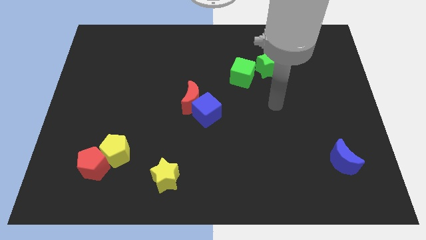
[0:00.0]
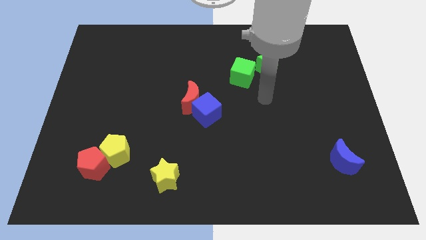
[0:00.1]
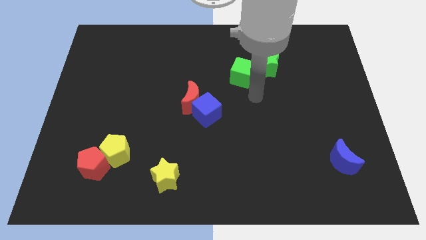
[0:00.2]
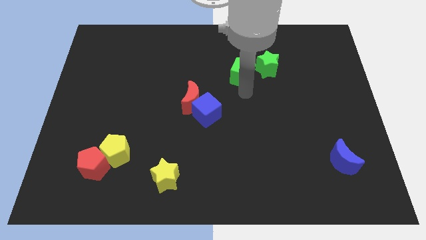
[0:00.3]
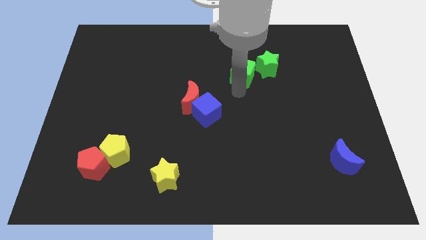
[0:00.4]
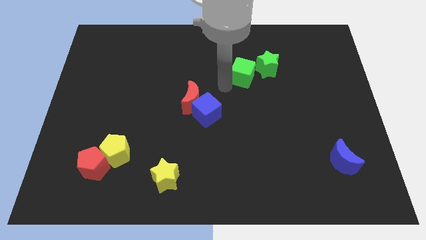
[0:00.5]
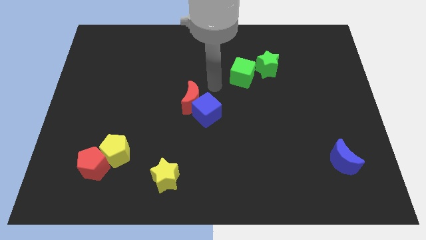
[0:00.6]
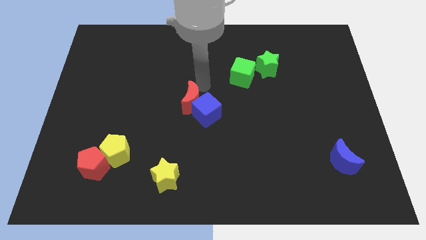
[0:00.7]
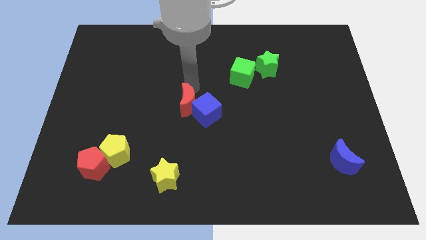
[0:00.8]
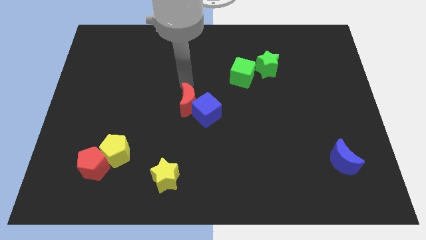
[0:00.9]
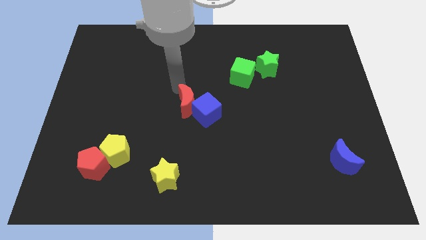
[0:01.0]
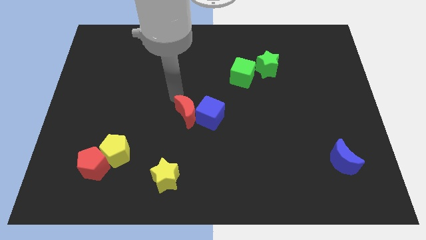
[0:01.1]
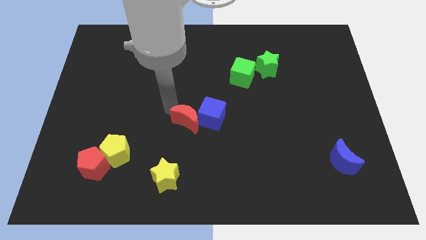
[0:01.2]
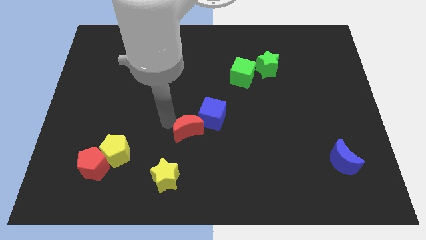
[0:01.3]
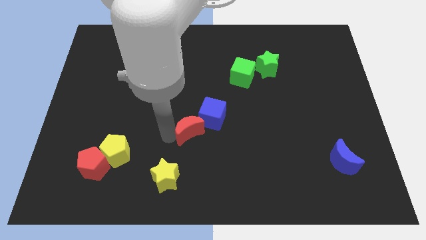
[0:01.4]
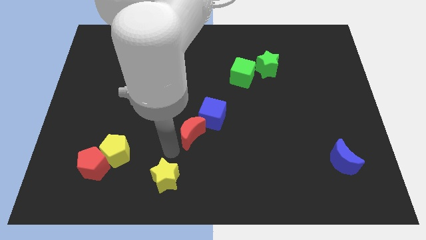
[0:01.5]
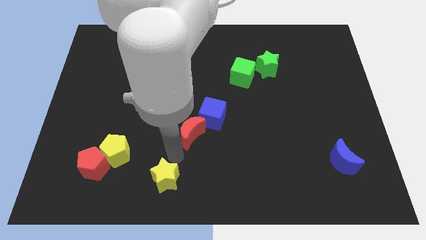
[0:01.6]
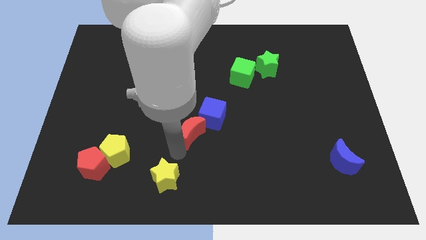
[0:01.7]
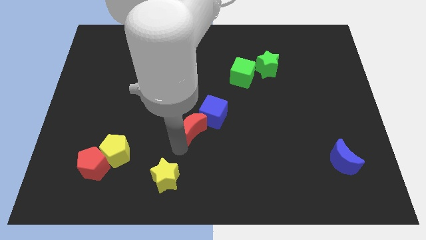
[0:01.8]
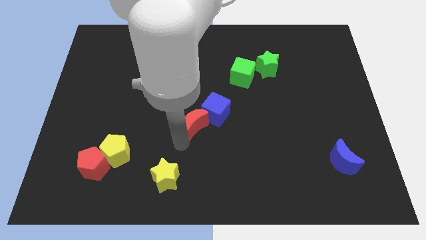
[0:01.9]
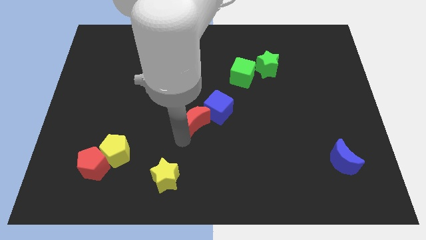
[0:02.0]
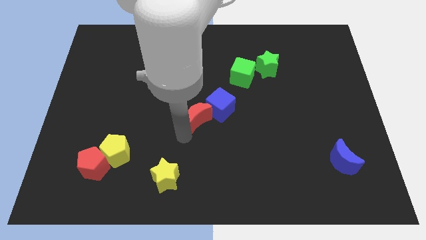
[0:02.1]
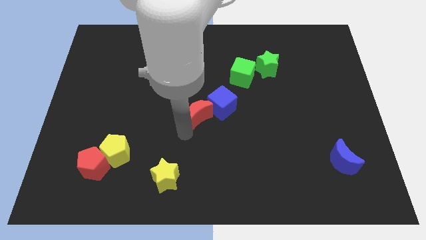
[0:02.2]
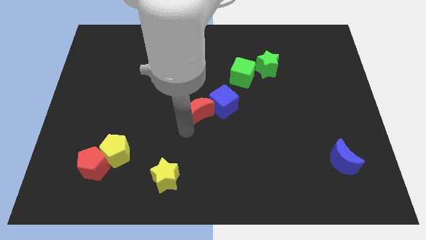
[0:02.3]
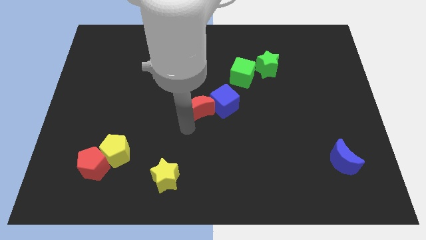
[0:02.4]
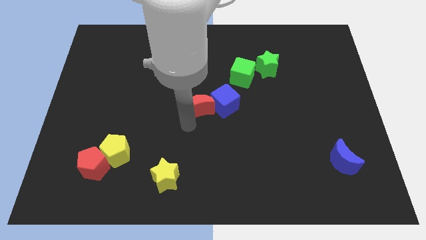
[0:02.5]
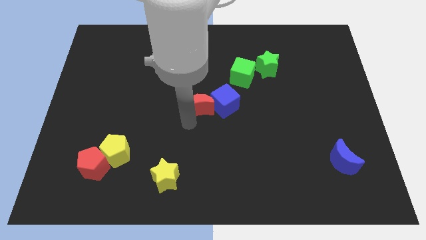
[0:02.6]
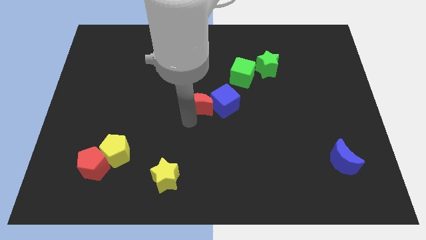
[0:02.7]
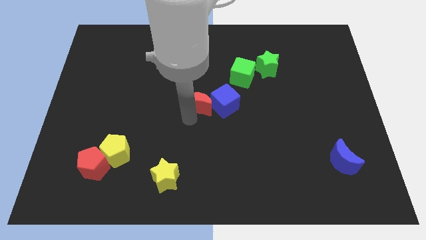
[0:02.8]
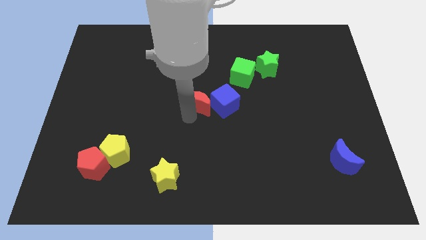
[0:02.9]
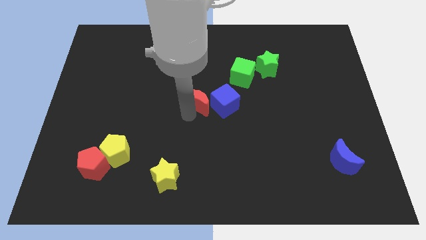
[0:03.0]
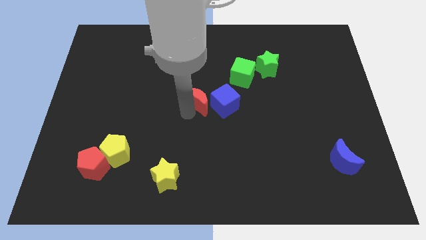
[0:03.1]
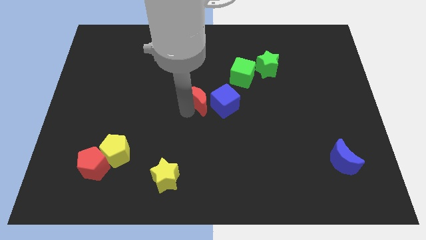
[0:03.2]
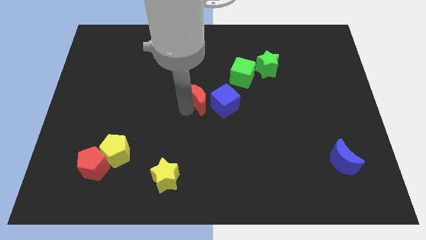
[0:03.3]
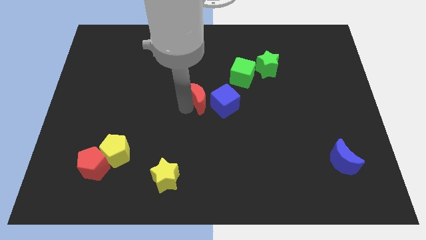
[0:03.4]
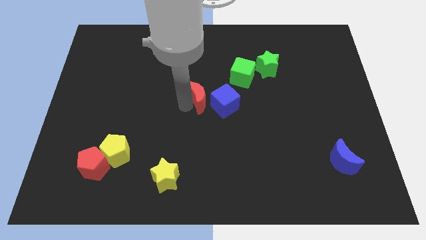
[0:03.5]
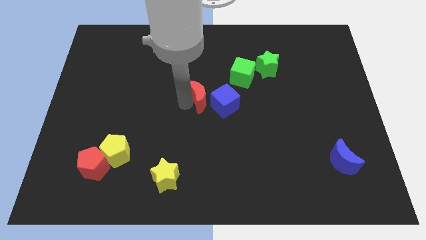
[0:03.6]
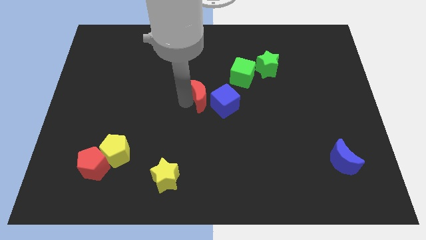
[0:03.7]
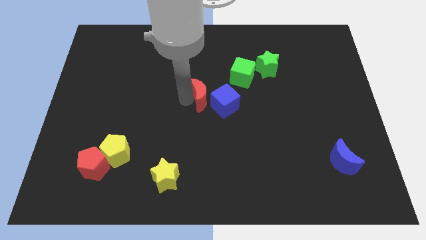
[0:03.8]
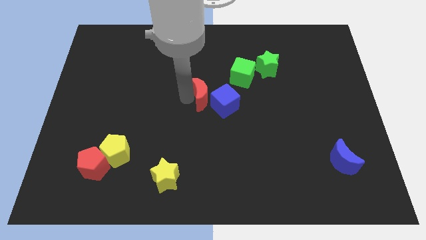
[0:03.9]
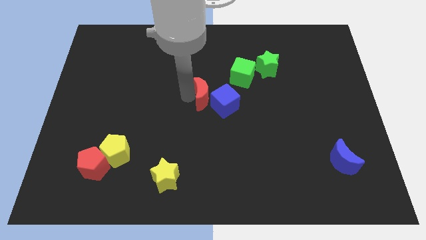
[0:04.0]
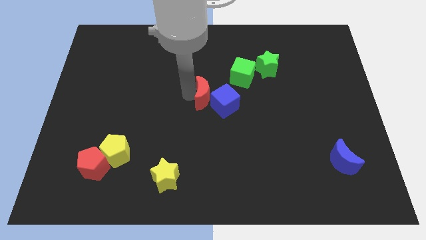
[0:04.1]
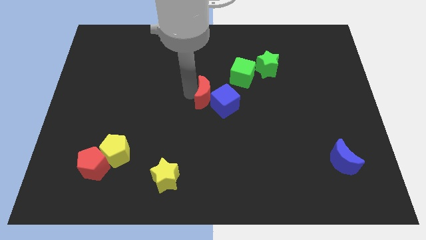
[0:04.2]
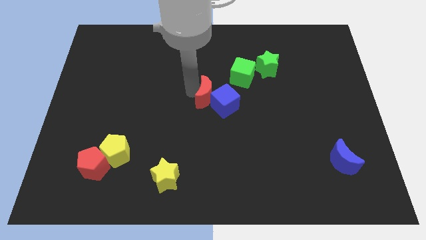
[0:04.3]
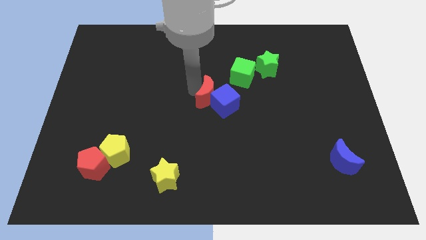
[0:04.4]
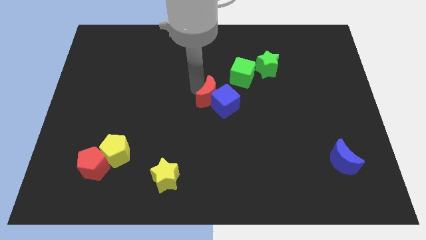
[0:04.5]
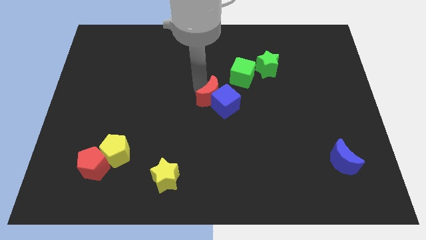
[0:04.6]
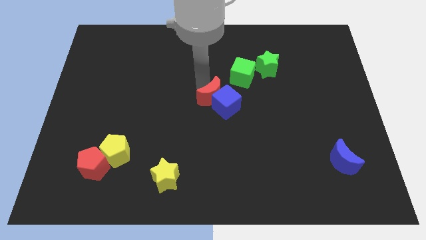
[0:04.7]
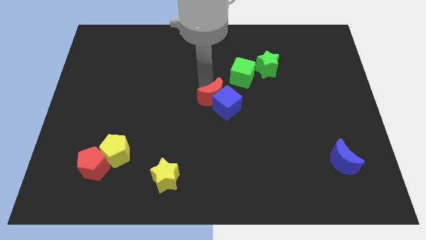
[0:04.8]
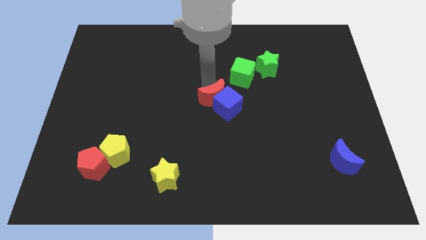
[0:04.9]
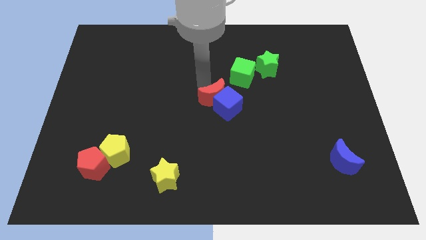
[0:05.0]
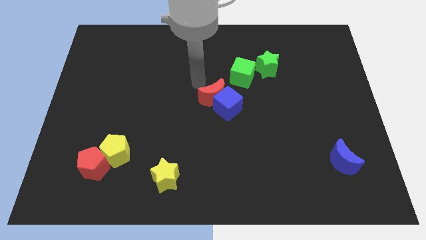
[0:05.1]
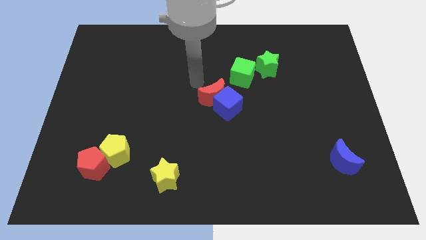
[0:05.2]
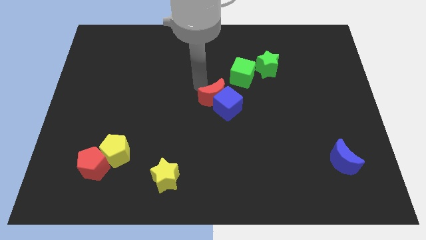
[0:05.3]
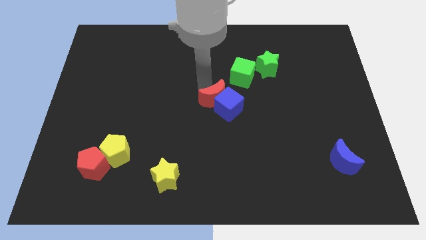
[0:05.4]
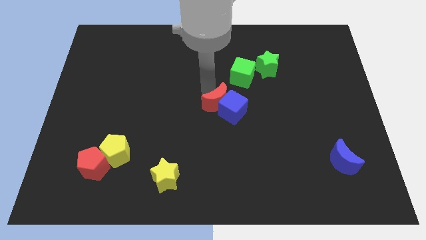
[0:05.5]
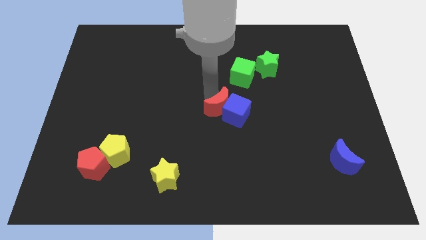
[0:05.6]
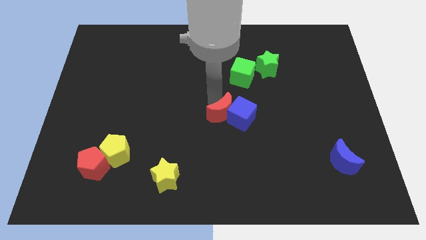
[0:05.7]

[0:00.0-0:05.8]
move the red moon slightly downwards and right

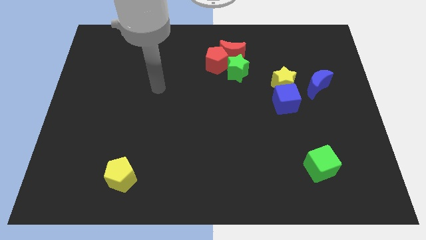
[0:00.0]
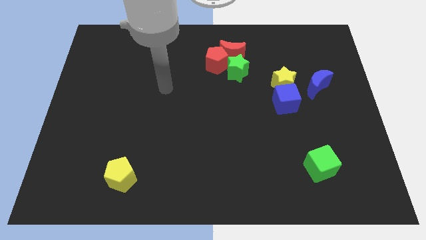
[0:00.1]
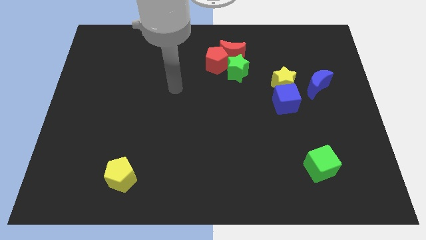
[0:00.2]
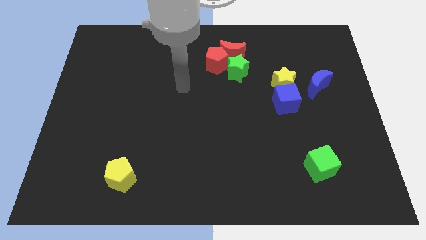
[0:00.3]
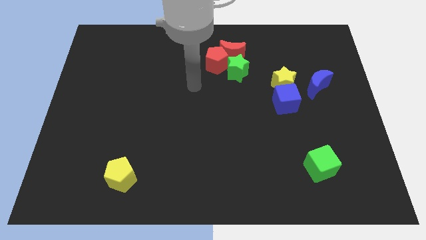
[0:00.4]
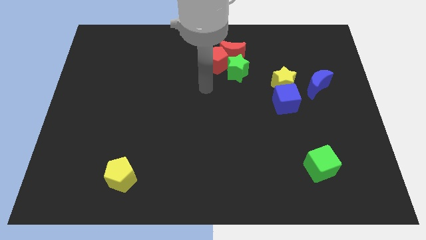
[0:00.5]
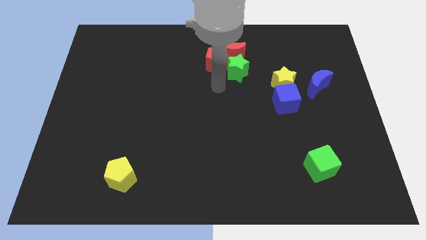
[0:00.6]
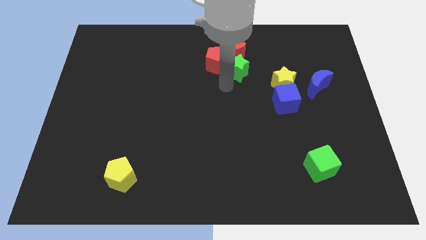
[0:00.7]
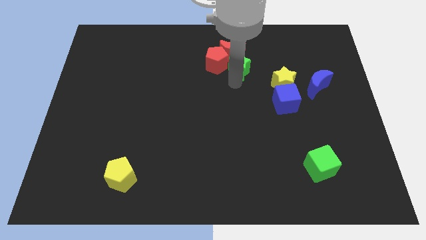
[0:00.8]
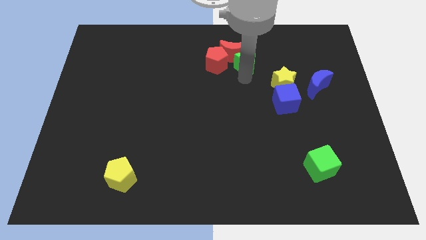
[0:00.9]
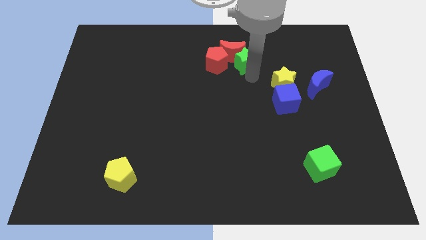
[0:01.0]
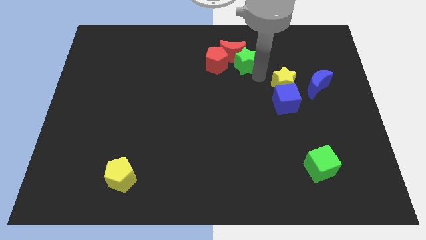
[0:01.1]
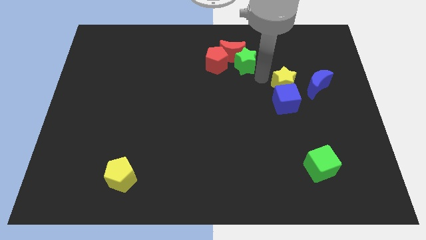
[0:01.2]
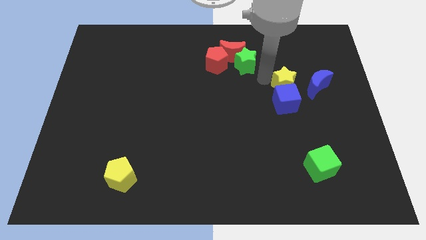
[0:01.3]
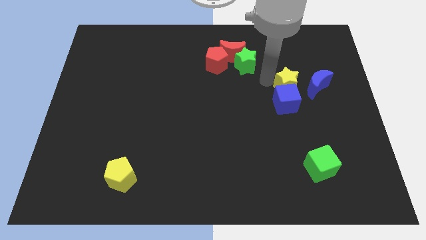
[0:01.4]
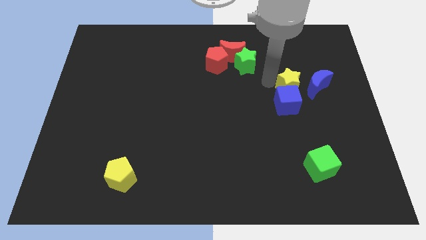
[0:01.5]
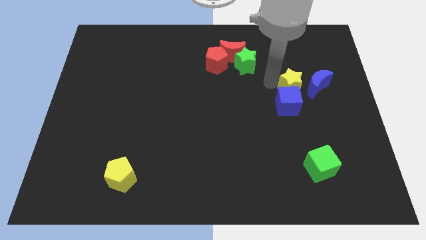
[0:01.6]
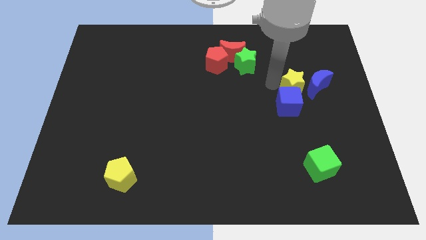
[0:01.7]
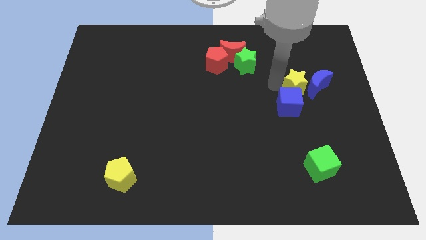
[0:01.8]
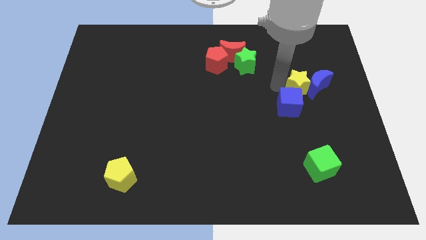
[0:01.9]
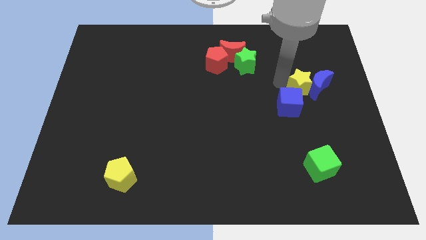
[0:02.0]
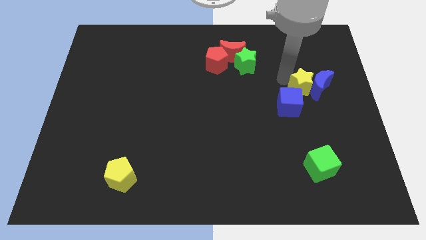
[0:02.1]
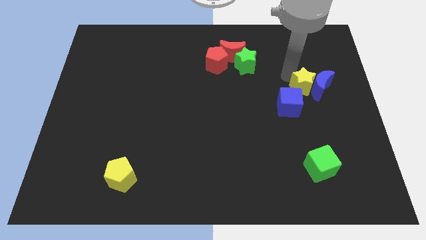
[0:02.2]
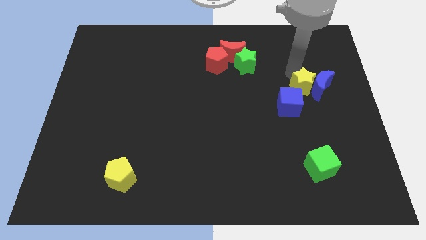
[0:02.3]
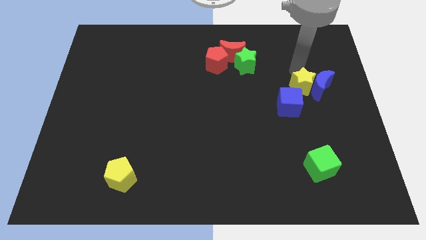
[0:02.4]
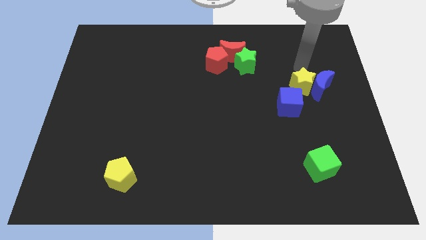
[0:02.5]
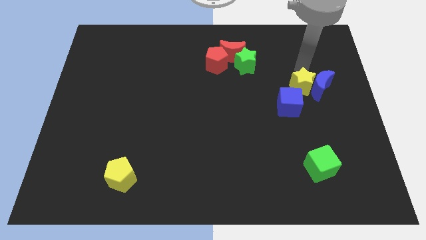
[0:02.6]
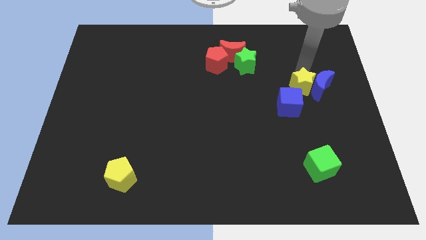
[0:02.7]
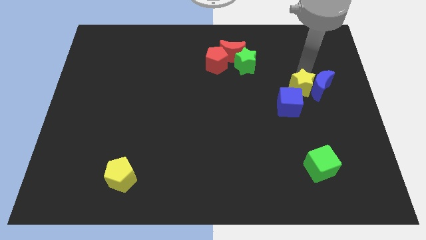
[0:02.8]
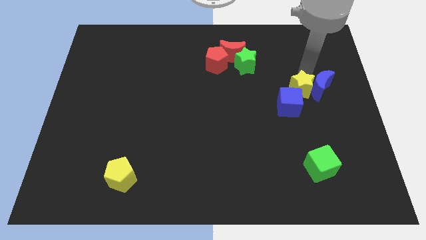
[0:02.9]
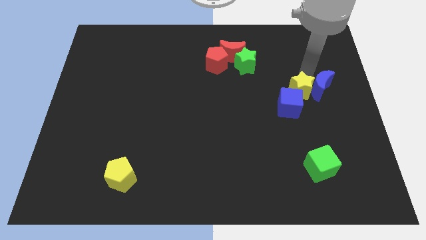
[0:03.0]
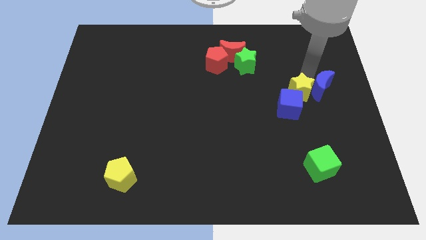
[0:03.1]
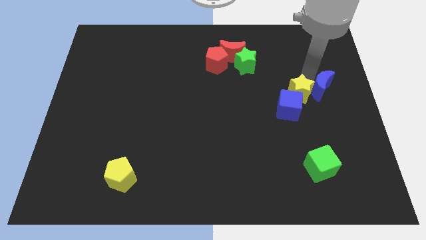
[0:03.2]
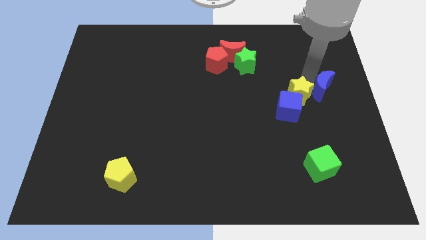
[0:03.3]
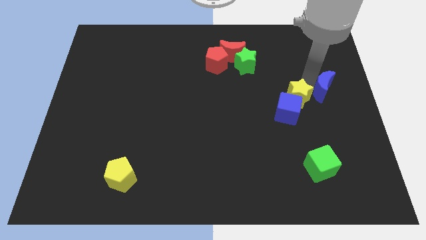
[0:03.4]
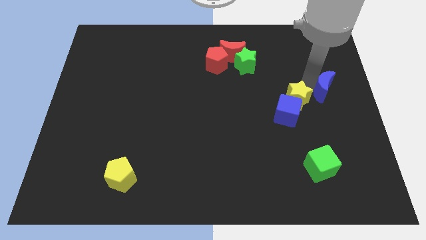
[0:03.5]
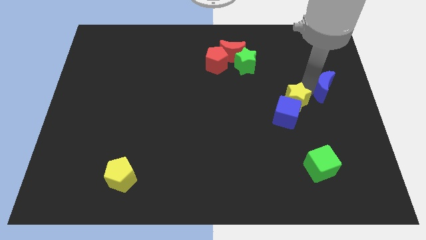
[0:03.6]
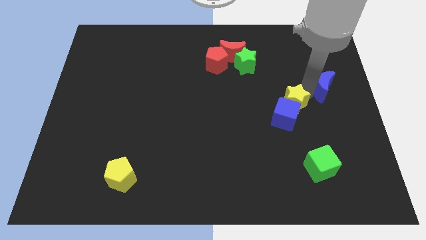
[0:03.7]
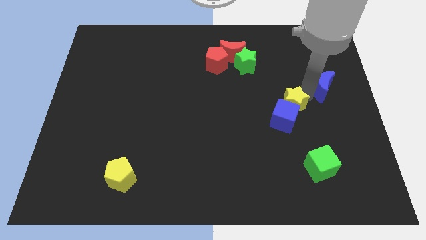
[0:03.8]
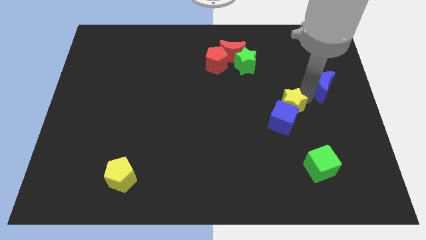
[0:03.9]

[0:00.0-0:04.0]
slide the yellow star a little bit downwards
